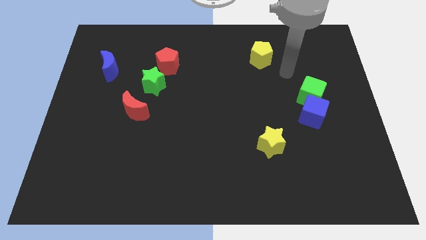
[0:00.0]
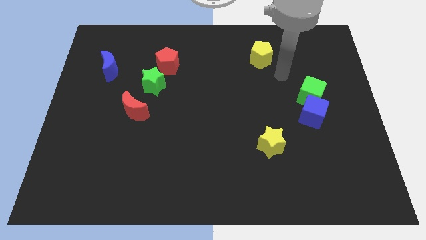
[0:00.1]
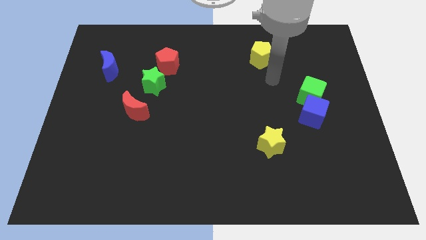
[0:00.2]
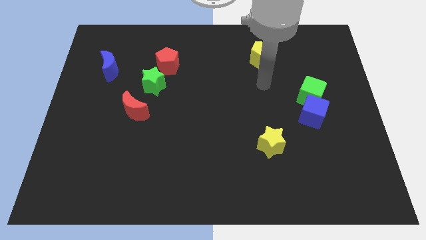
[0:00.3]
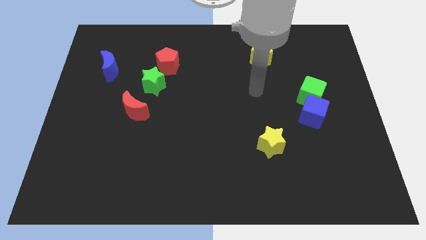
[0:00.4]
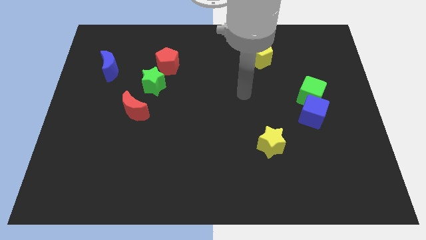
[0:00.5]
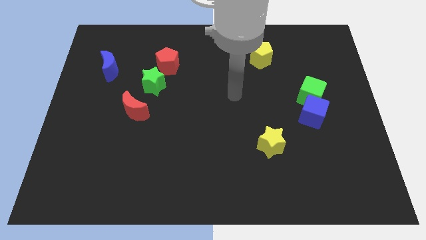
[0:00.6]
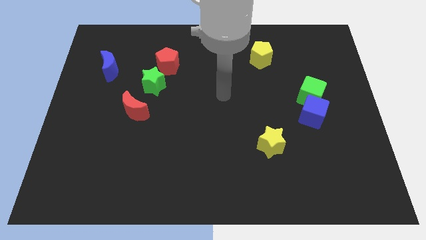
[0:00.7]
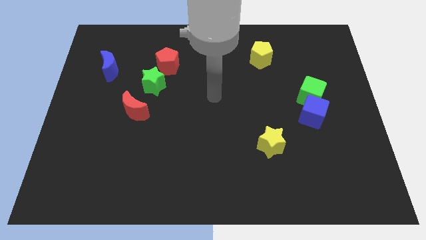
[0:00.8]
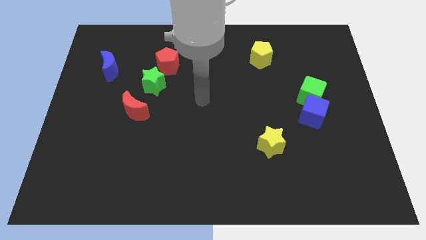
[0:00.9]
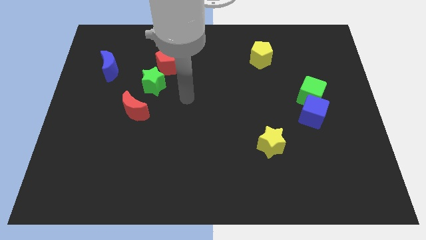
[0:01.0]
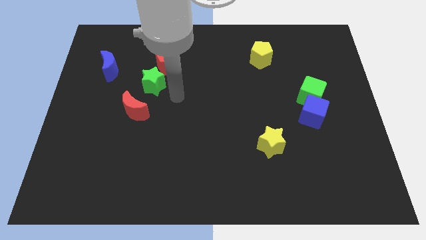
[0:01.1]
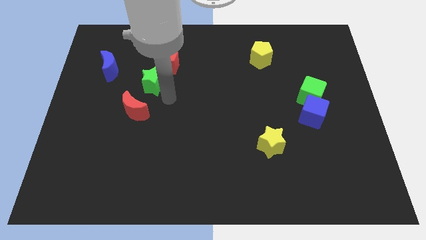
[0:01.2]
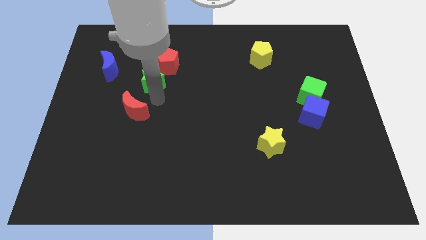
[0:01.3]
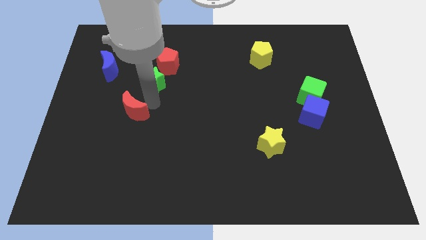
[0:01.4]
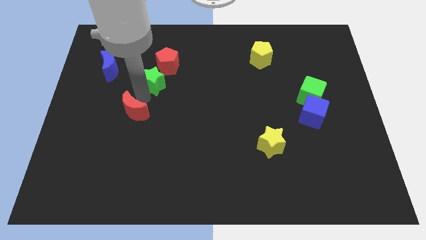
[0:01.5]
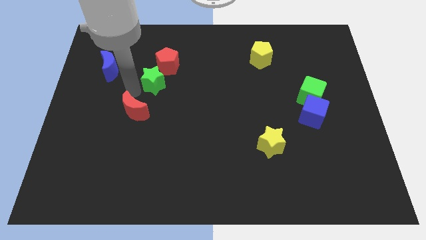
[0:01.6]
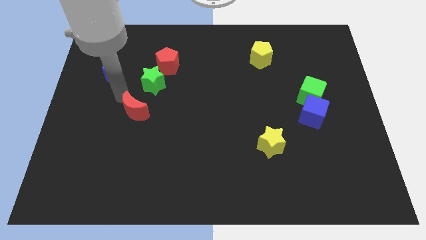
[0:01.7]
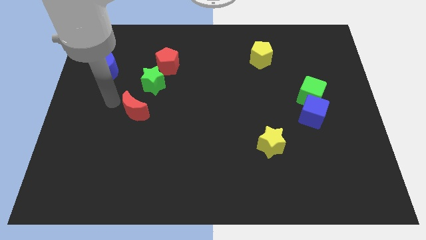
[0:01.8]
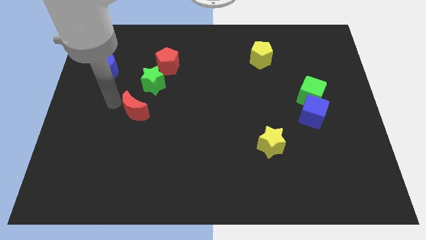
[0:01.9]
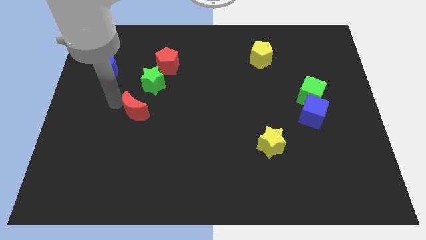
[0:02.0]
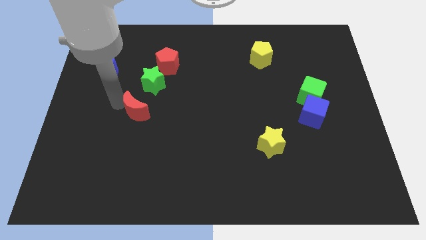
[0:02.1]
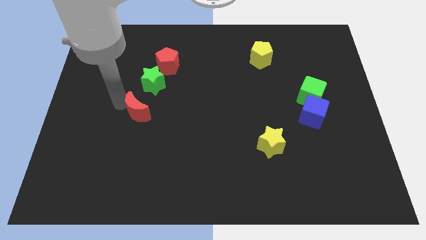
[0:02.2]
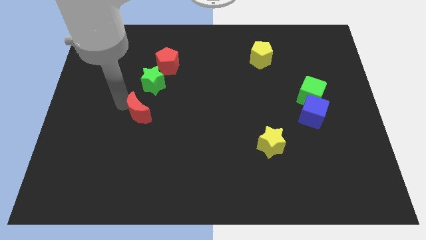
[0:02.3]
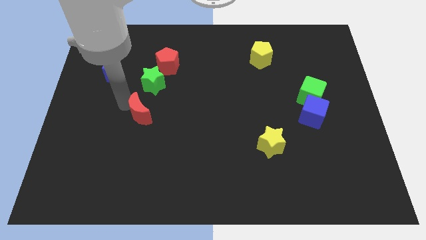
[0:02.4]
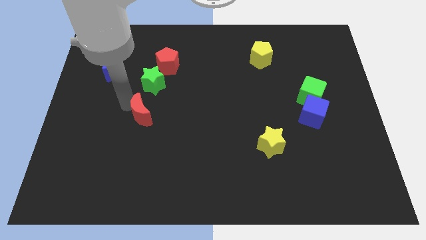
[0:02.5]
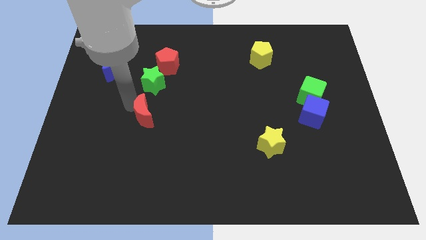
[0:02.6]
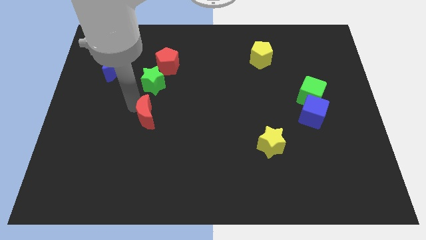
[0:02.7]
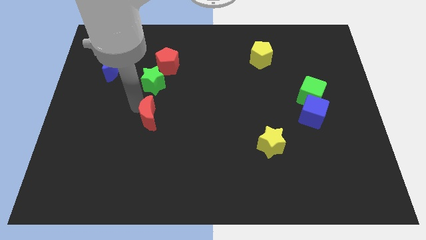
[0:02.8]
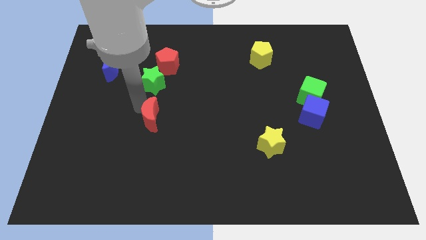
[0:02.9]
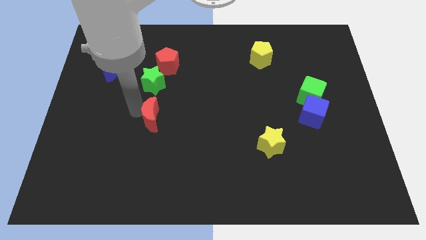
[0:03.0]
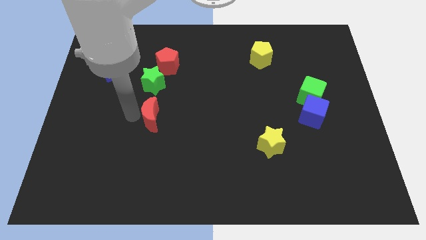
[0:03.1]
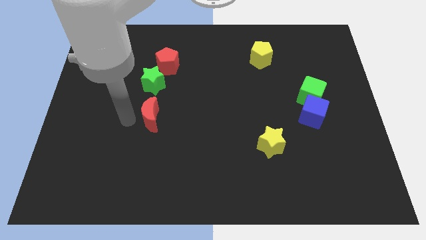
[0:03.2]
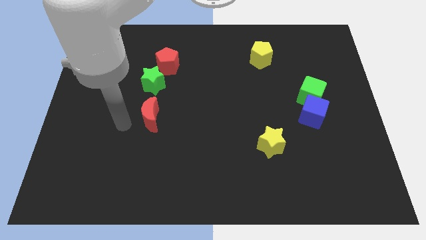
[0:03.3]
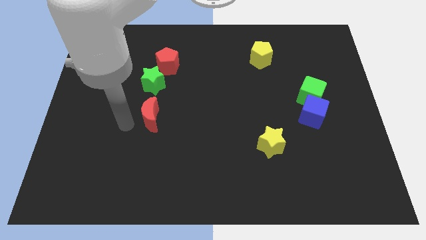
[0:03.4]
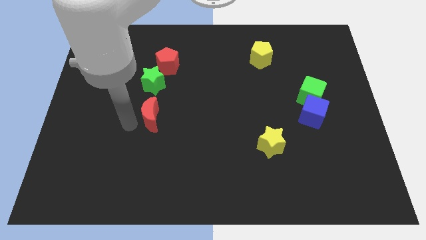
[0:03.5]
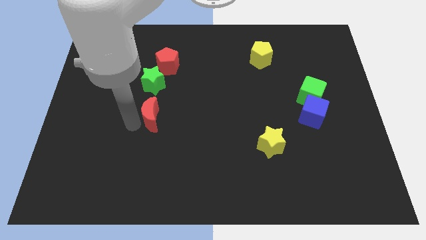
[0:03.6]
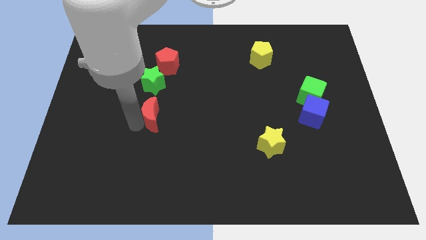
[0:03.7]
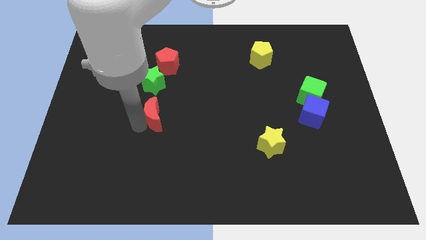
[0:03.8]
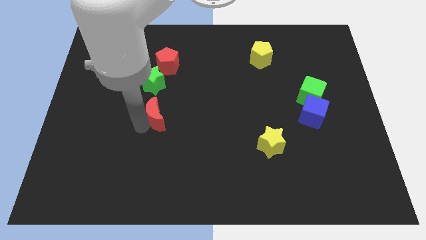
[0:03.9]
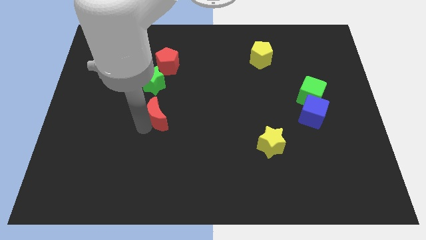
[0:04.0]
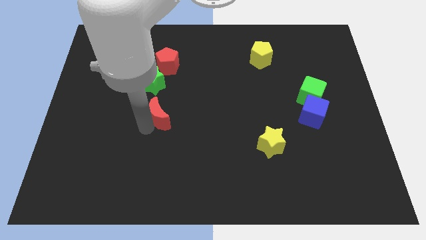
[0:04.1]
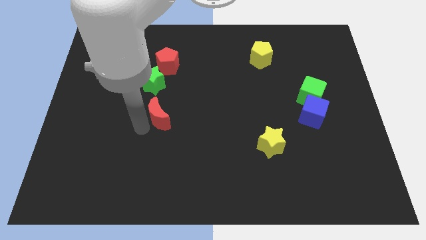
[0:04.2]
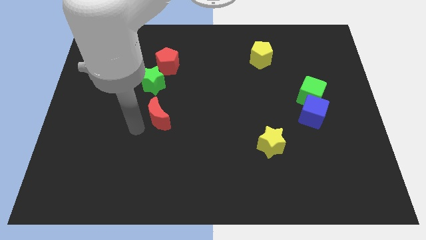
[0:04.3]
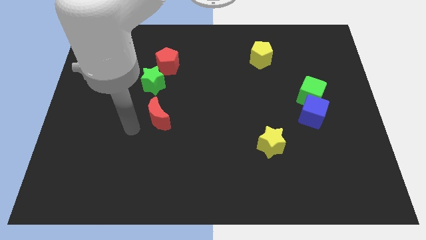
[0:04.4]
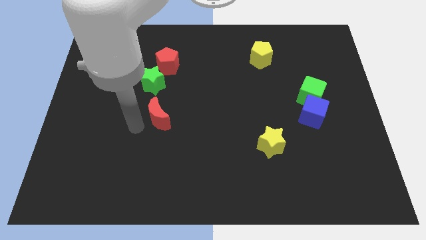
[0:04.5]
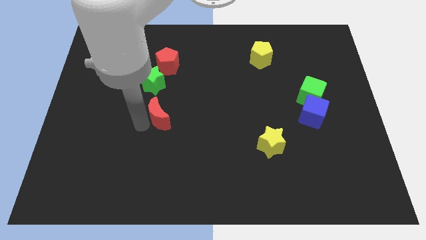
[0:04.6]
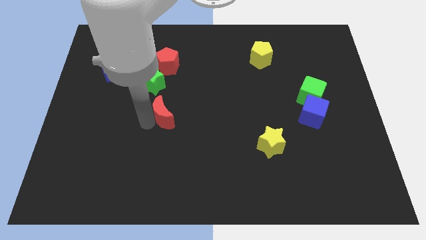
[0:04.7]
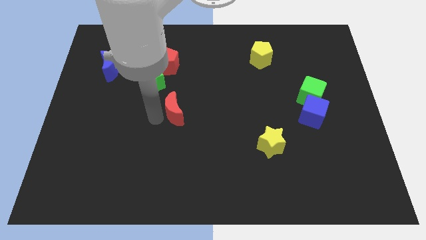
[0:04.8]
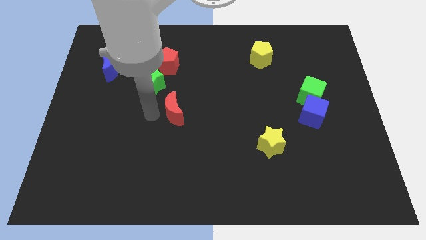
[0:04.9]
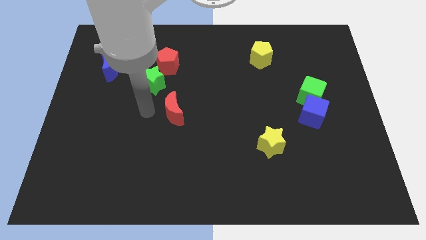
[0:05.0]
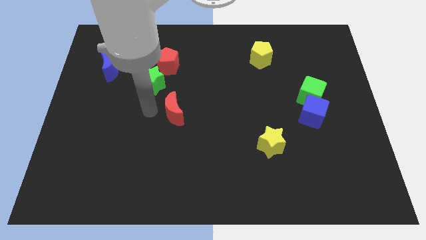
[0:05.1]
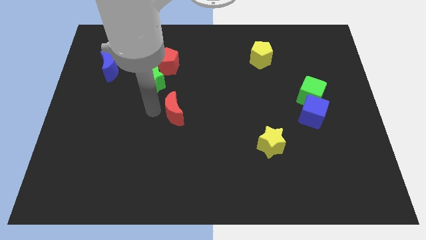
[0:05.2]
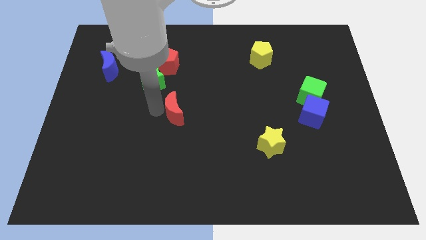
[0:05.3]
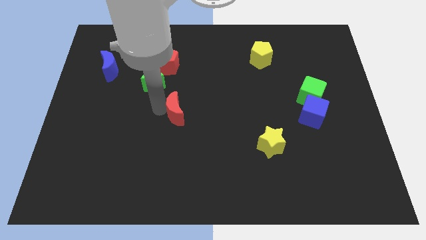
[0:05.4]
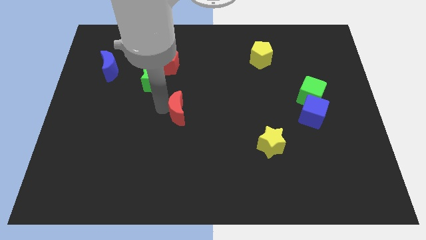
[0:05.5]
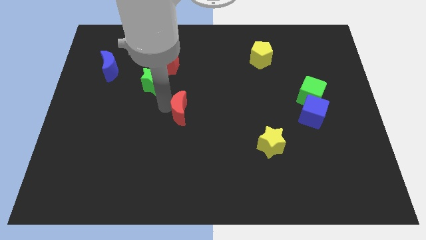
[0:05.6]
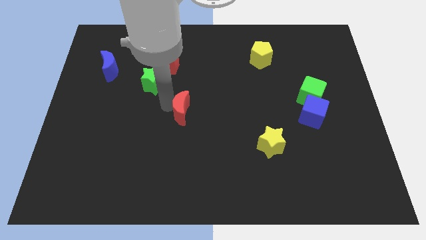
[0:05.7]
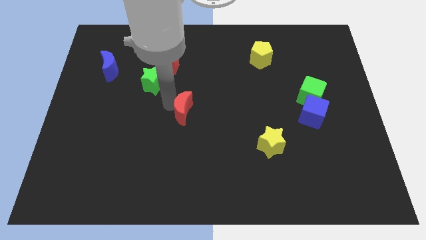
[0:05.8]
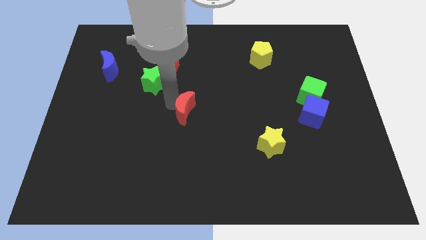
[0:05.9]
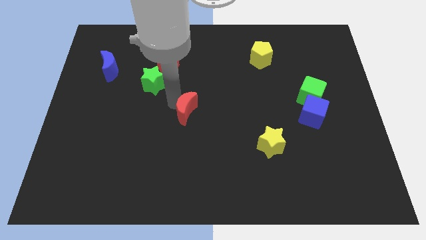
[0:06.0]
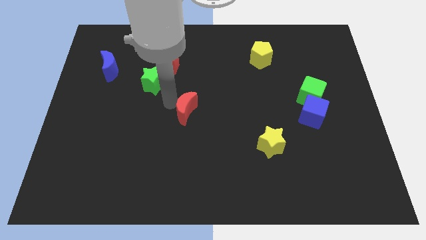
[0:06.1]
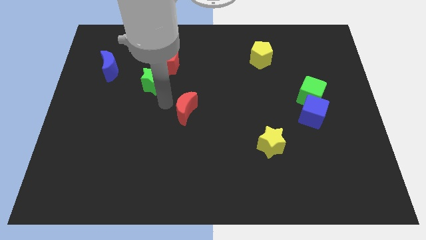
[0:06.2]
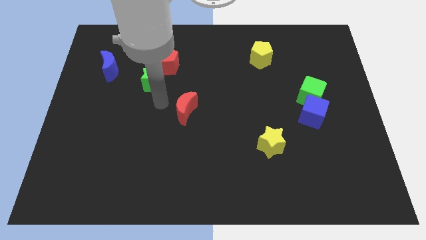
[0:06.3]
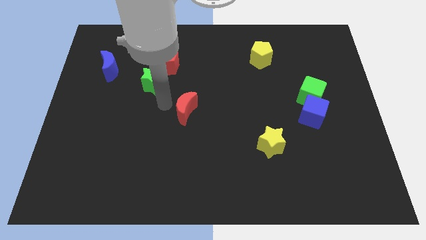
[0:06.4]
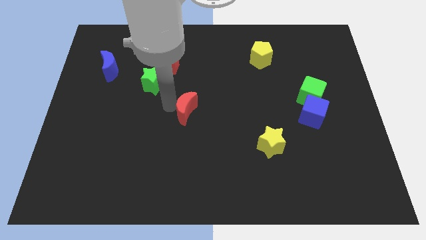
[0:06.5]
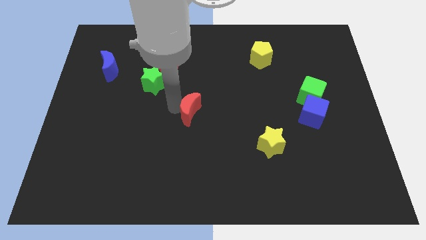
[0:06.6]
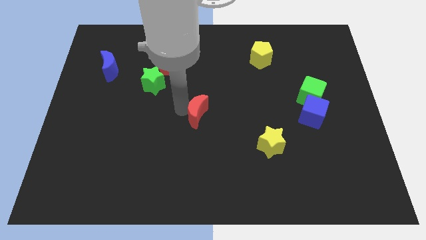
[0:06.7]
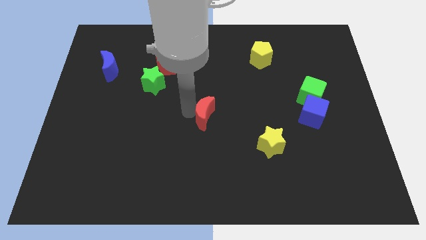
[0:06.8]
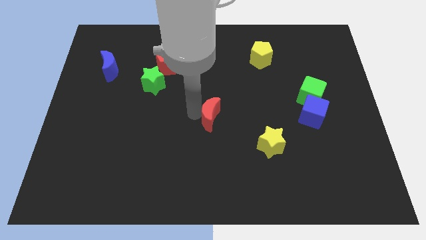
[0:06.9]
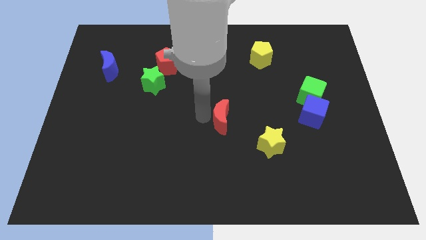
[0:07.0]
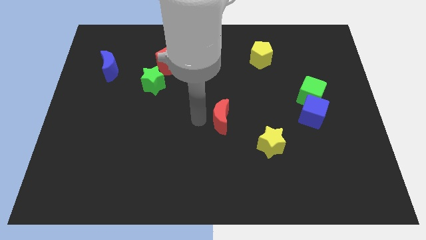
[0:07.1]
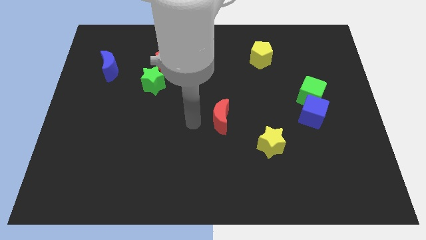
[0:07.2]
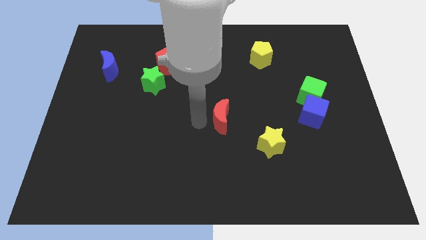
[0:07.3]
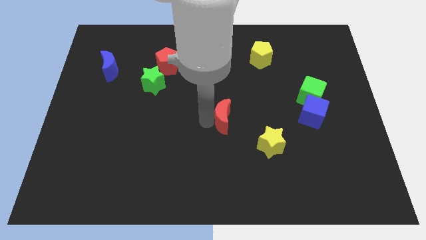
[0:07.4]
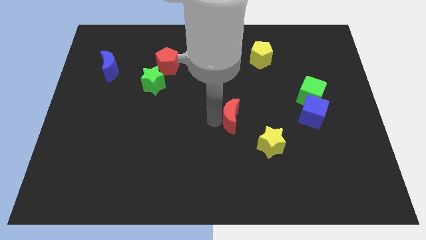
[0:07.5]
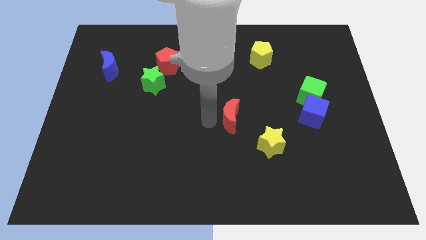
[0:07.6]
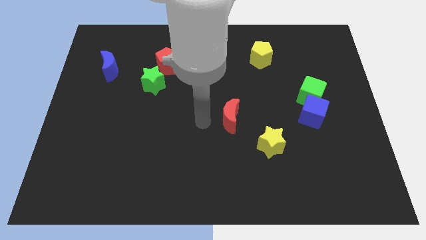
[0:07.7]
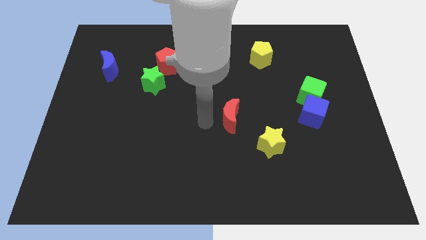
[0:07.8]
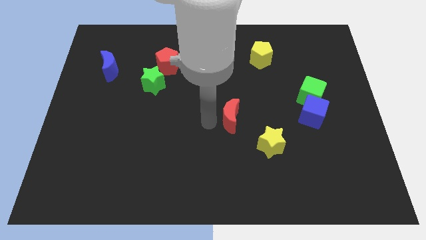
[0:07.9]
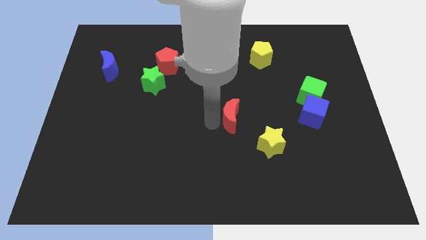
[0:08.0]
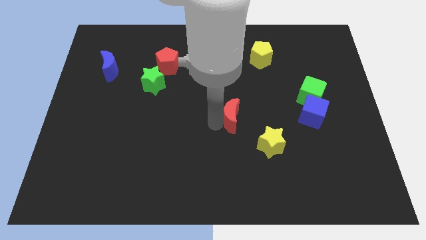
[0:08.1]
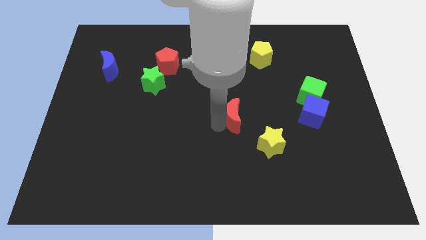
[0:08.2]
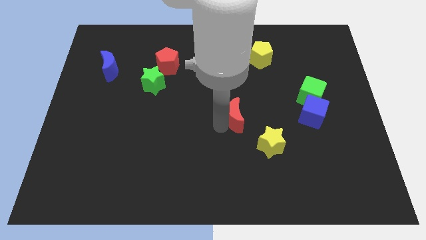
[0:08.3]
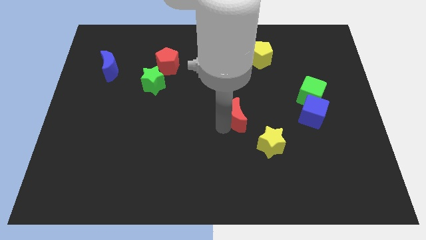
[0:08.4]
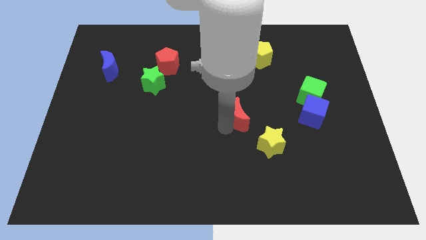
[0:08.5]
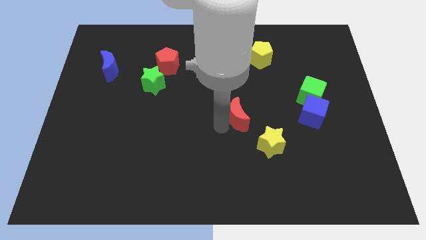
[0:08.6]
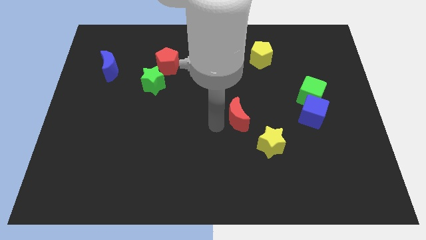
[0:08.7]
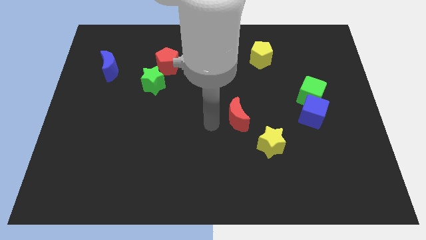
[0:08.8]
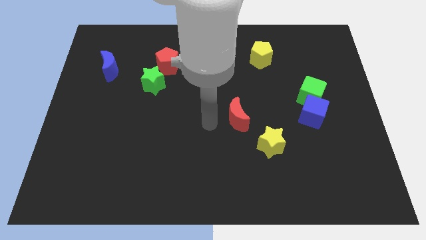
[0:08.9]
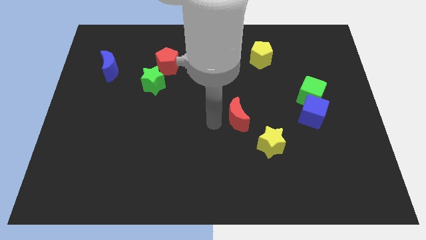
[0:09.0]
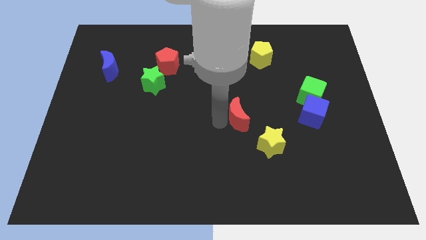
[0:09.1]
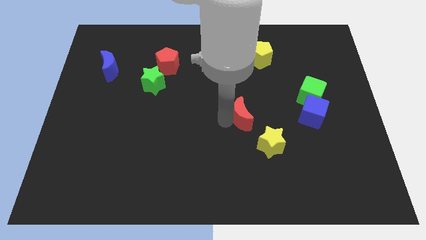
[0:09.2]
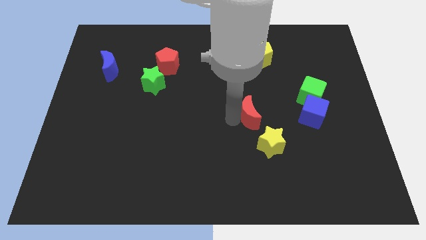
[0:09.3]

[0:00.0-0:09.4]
put the red moon to the left side of the blue cube
